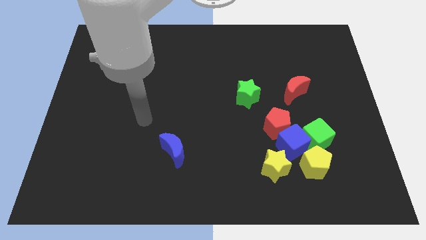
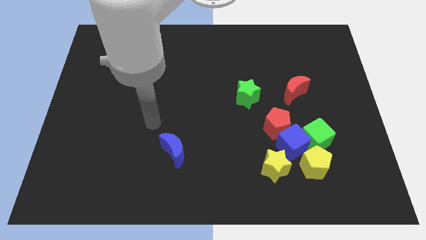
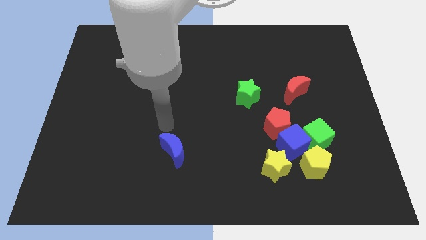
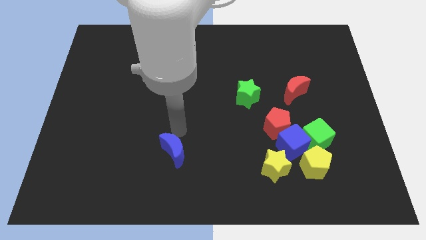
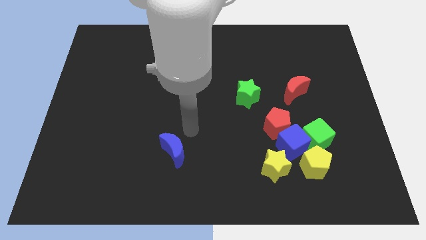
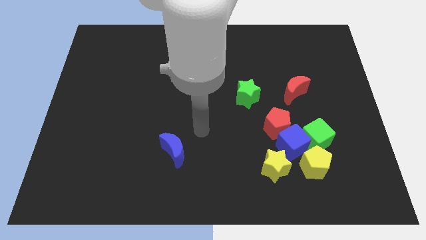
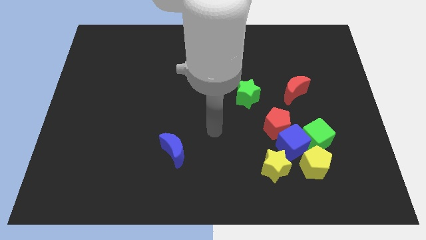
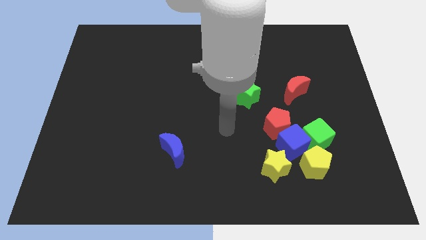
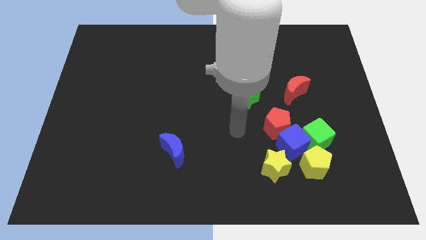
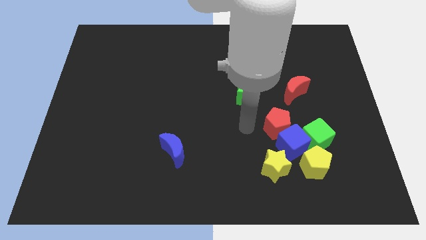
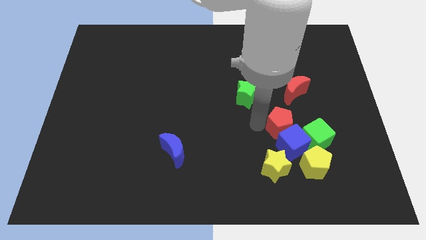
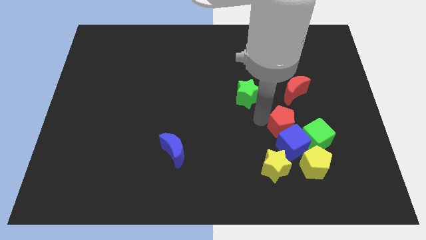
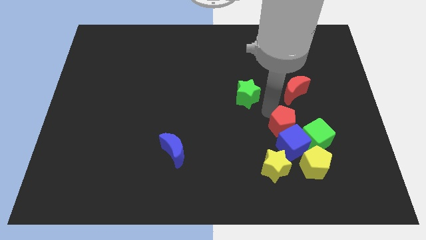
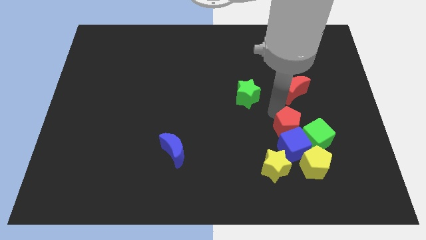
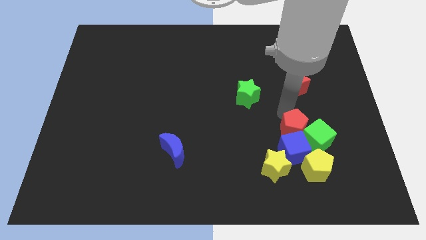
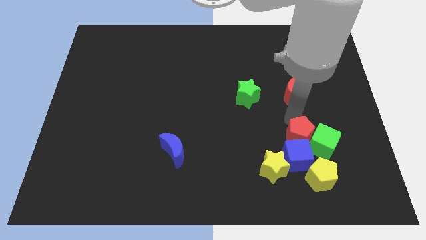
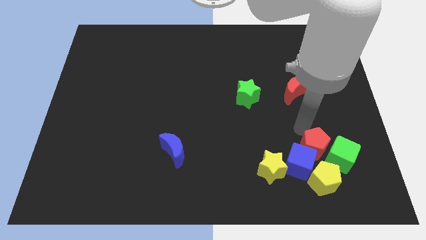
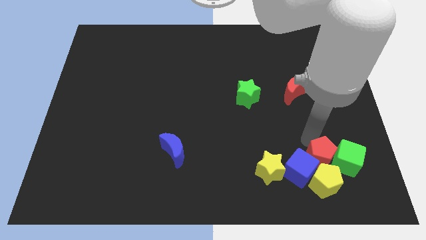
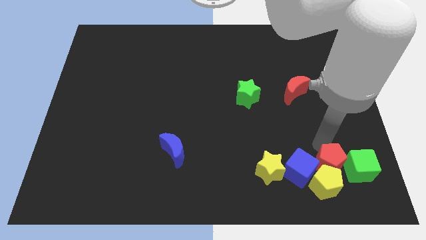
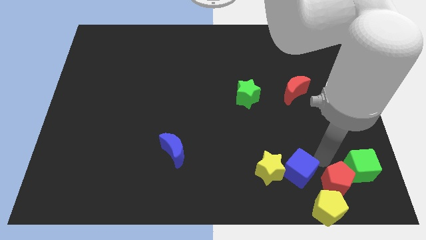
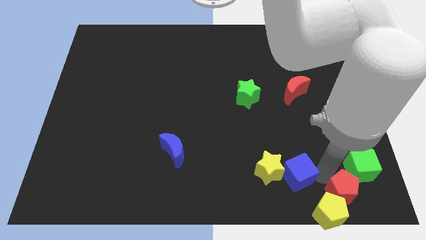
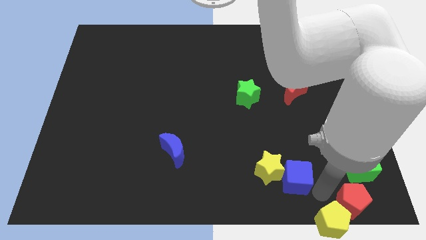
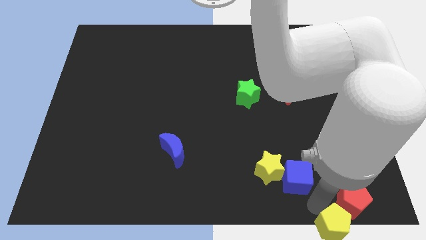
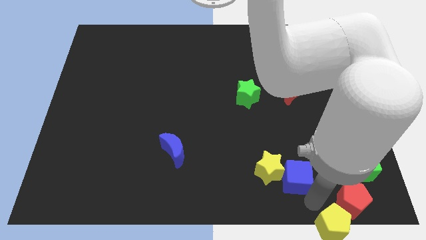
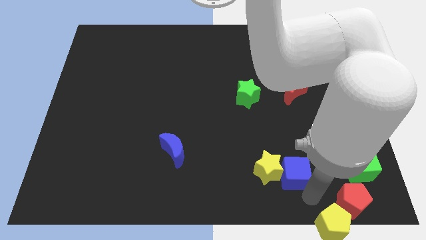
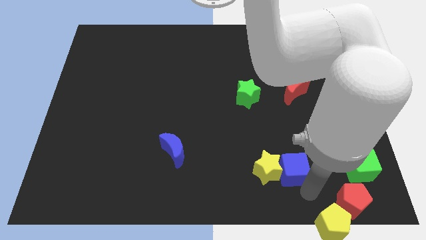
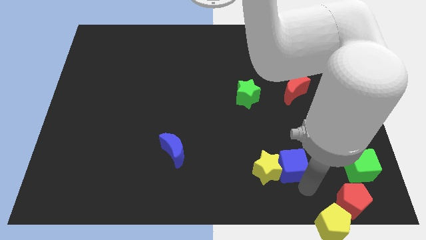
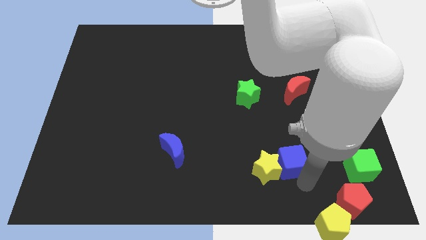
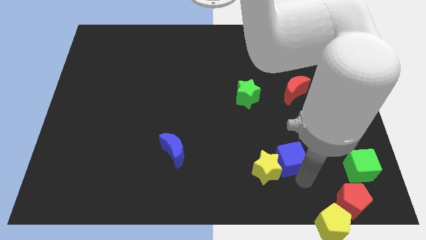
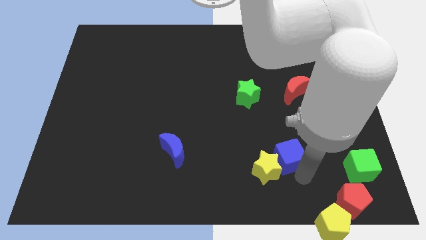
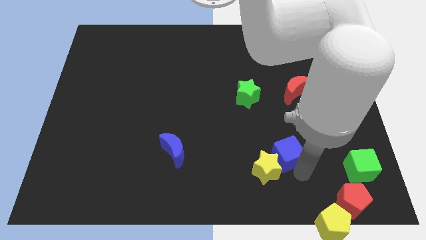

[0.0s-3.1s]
move the blue cube away from the group

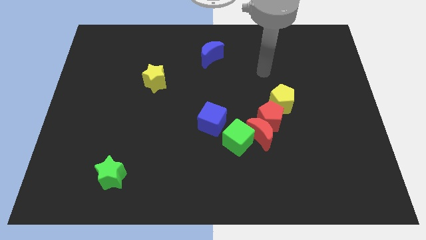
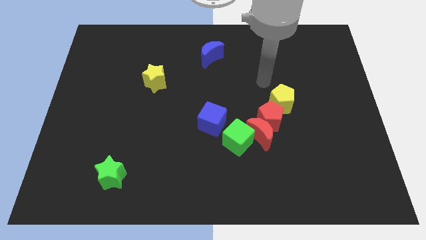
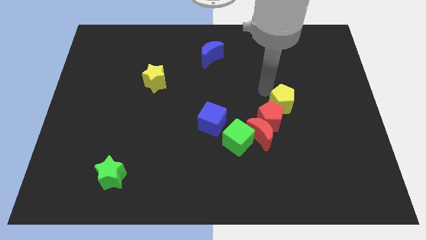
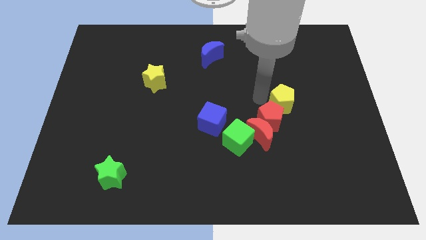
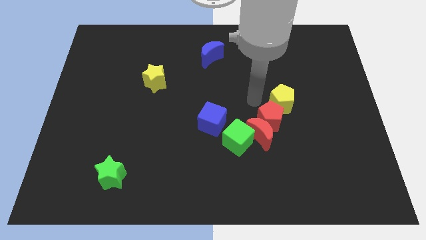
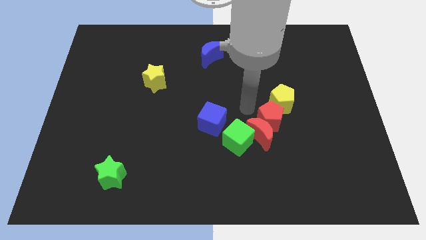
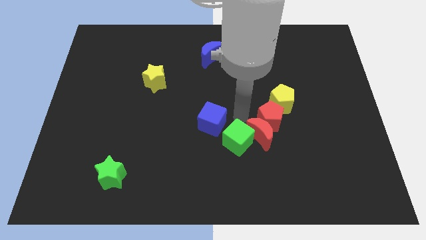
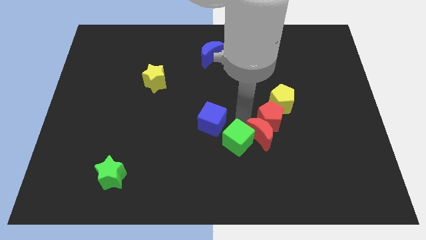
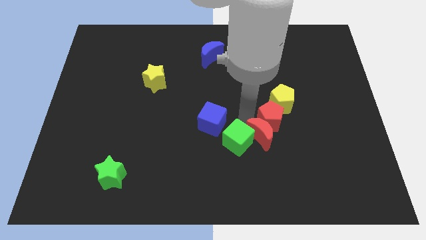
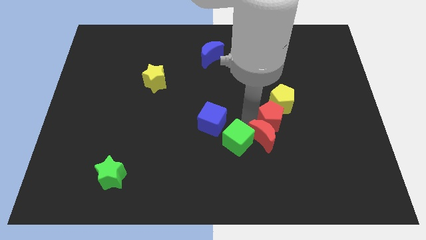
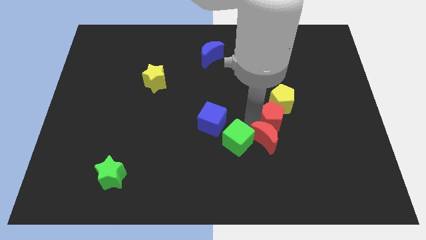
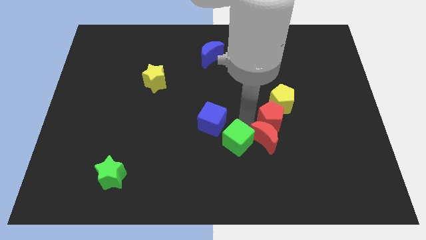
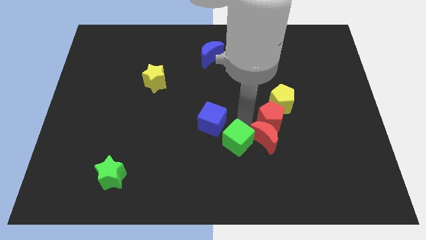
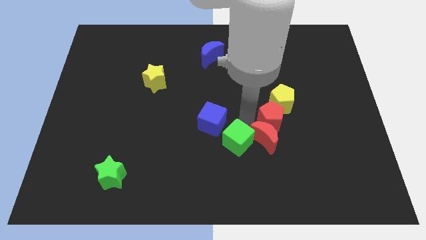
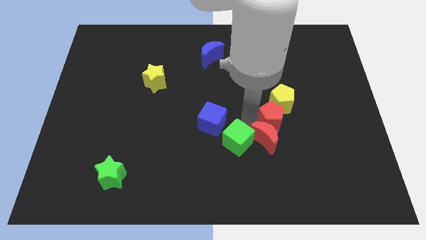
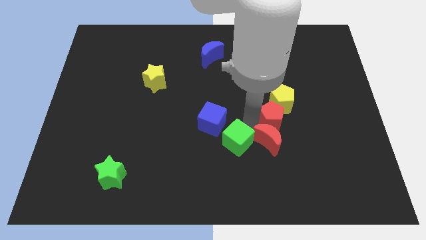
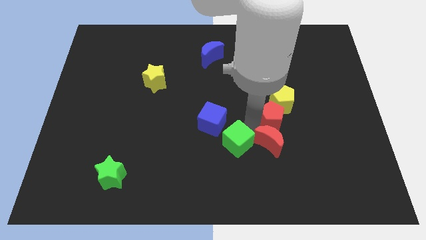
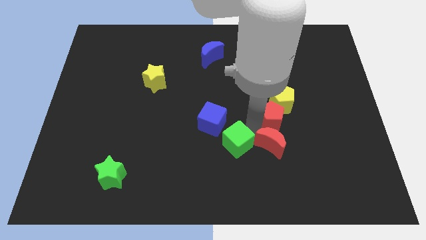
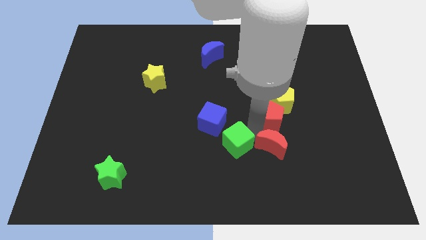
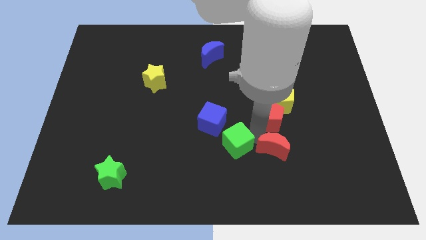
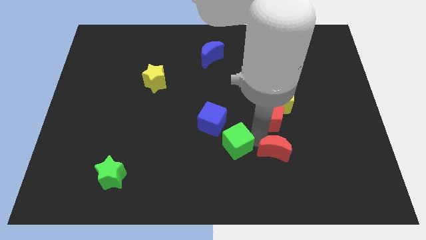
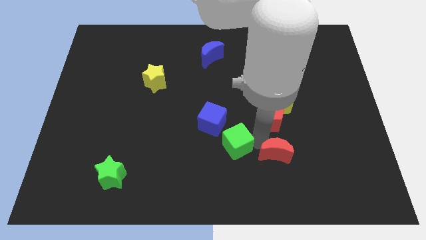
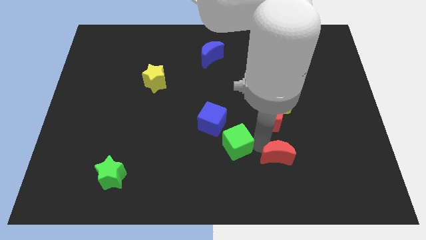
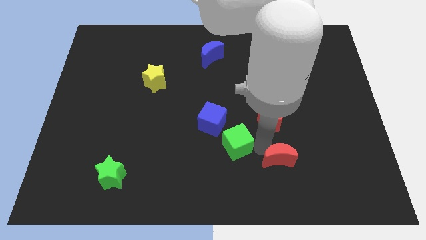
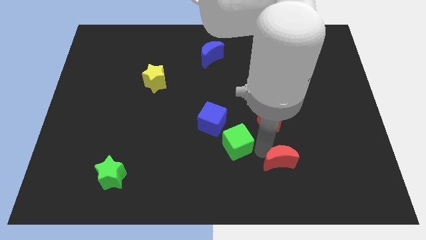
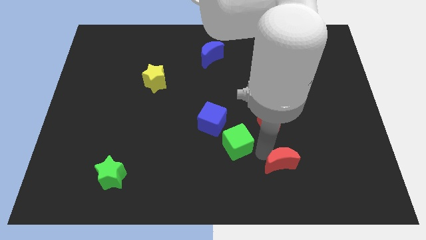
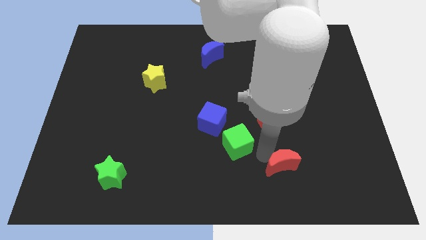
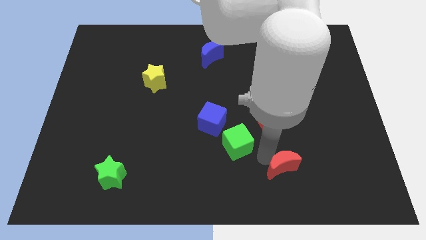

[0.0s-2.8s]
move the red moon away from the red pentagon and green cube

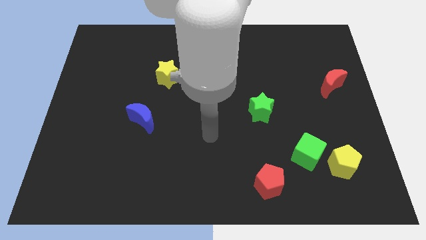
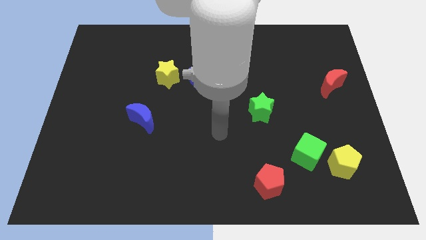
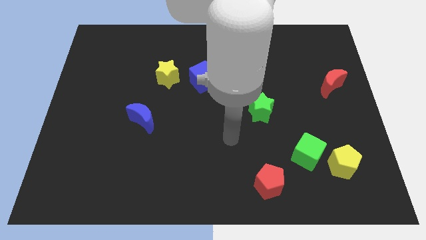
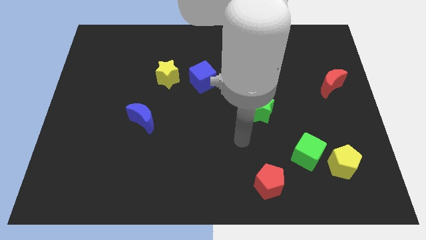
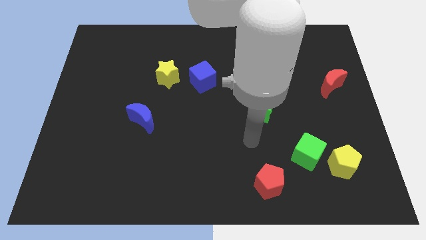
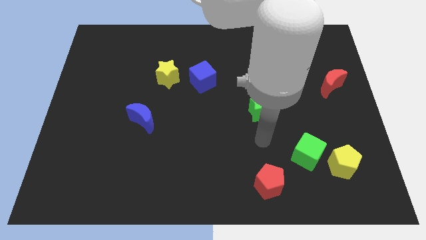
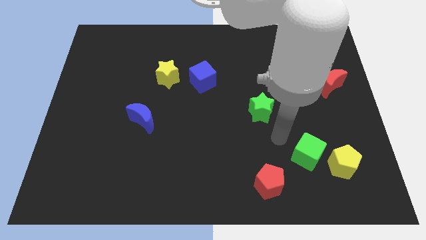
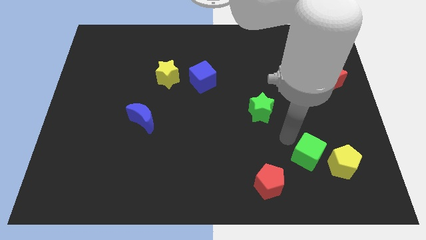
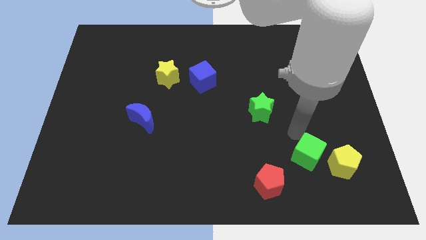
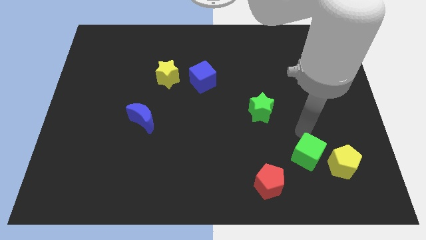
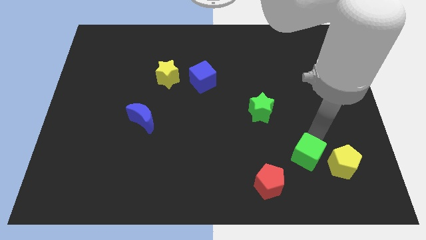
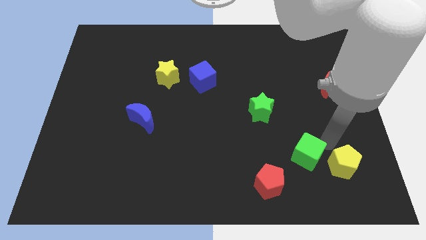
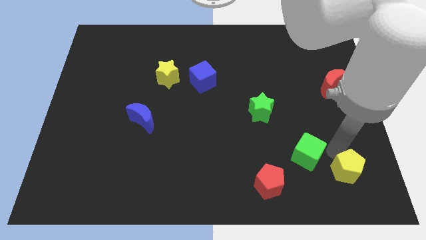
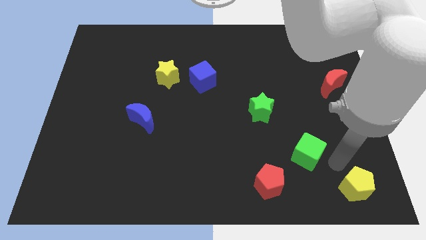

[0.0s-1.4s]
move the green cube away from the yellow pentagon

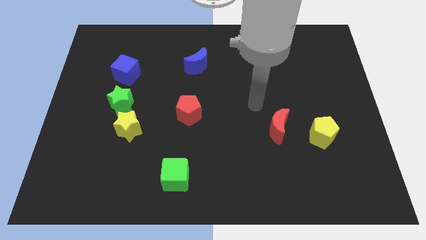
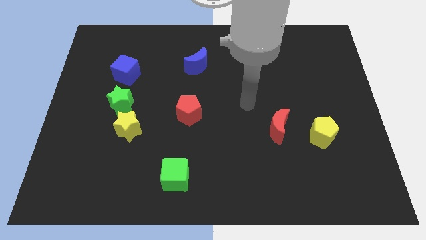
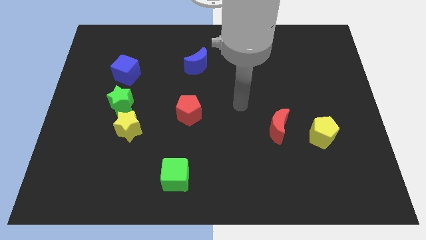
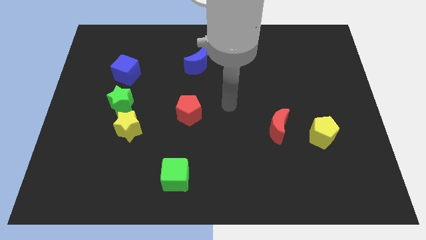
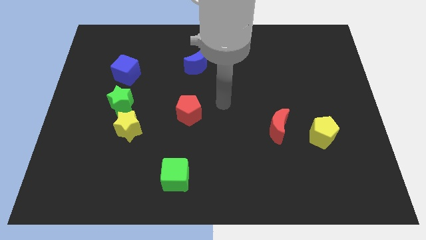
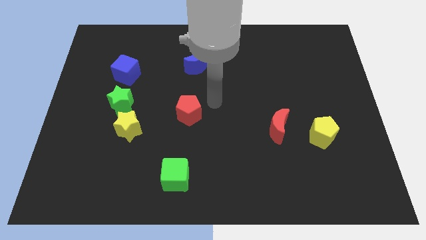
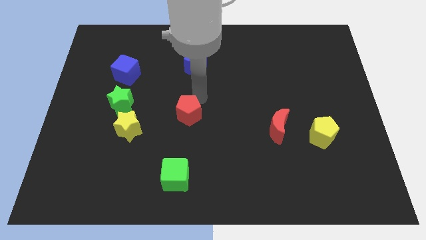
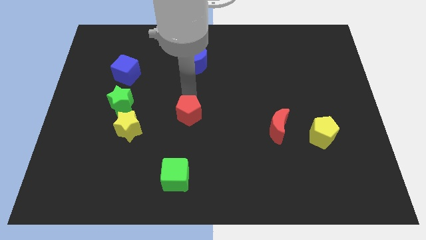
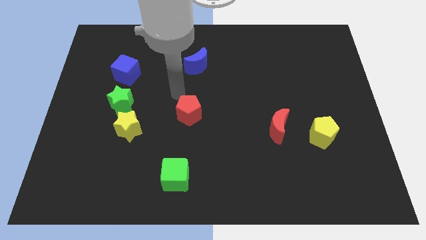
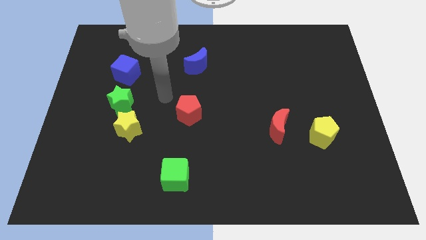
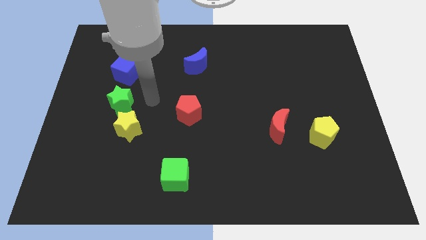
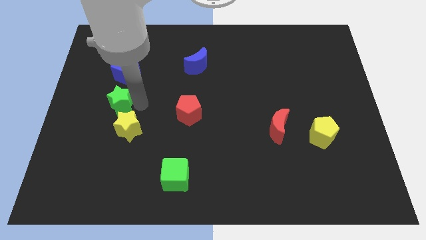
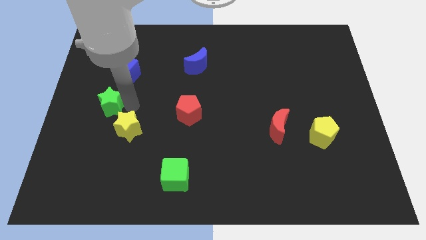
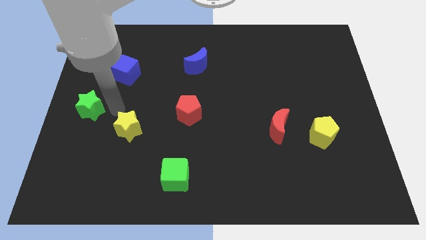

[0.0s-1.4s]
separate the yellow star from the green star

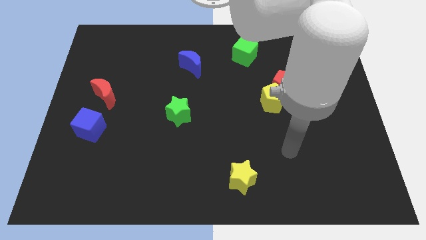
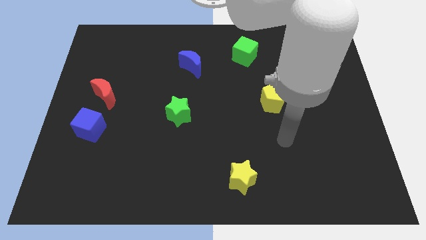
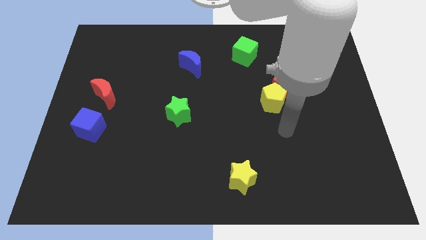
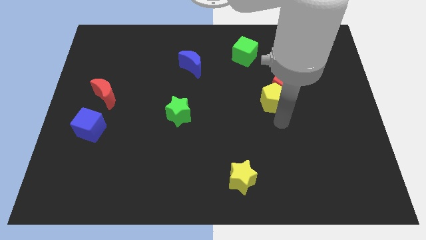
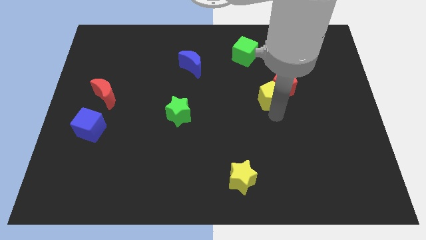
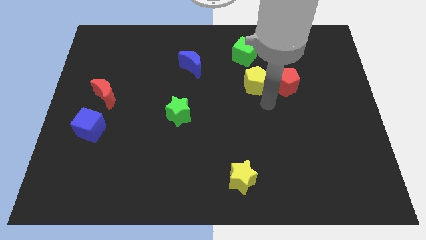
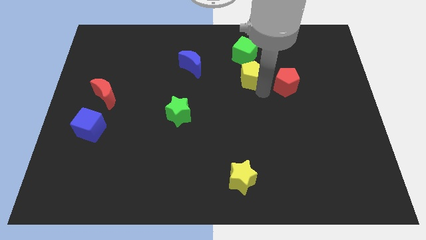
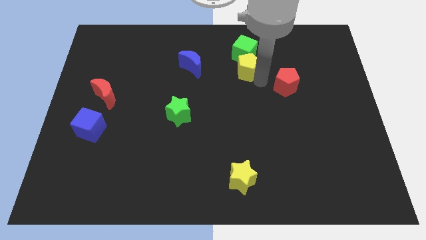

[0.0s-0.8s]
move the red pentagon away from the yellow pentagon
